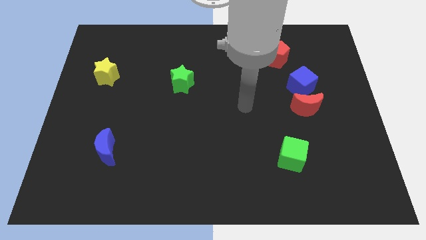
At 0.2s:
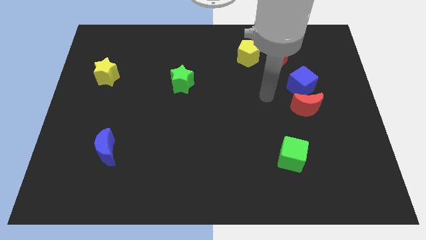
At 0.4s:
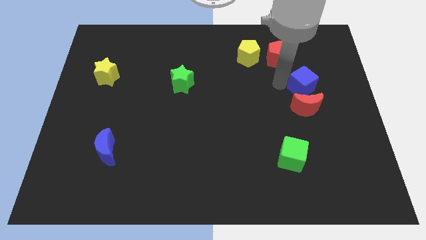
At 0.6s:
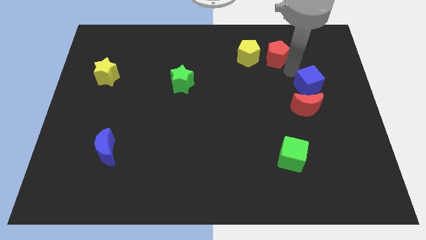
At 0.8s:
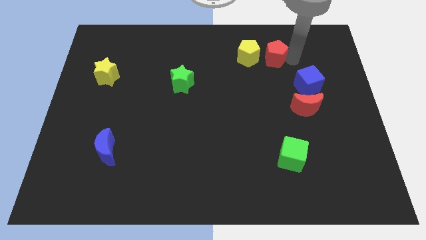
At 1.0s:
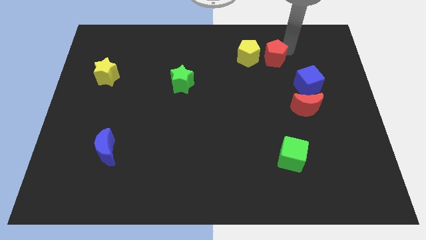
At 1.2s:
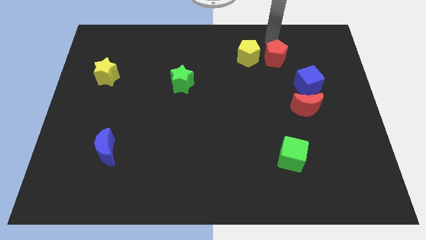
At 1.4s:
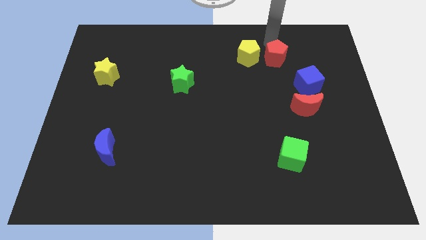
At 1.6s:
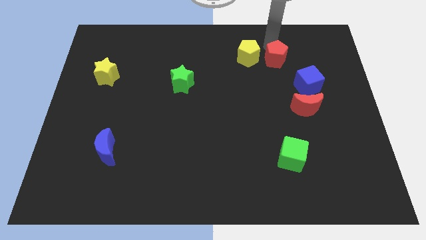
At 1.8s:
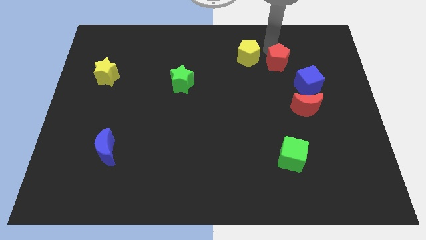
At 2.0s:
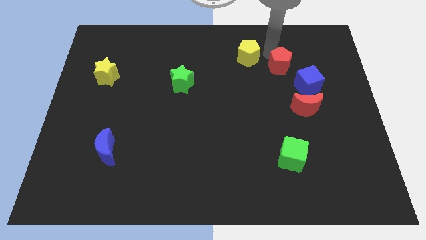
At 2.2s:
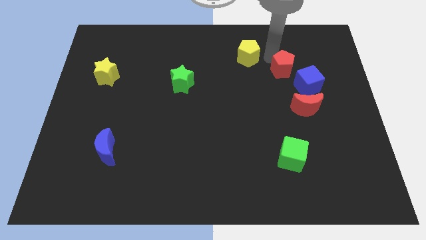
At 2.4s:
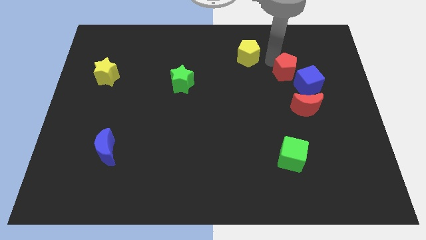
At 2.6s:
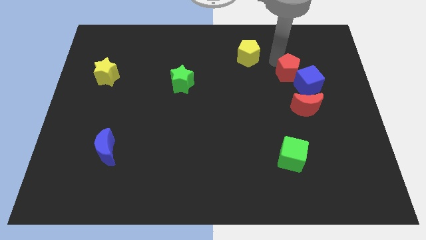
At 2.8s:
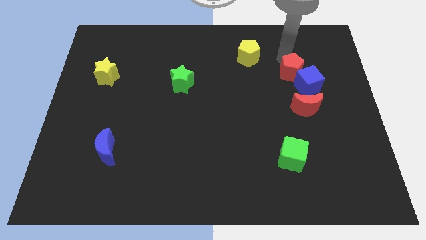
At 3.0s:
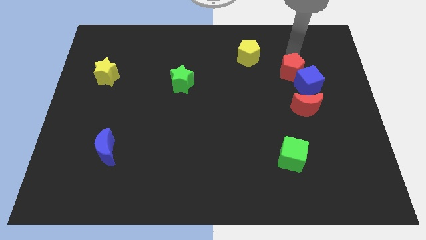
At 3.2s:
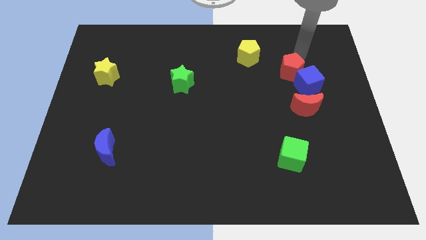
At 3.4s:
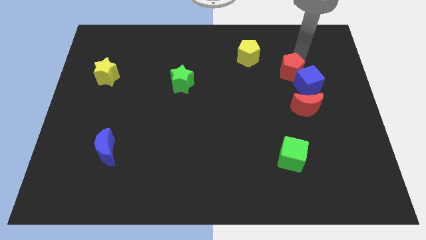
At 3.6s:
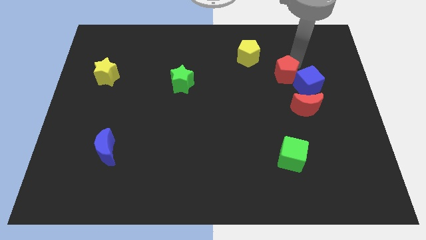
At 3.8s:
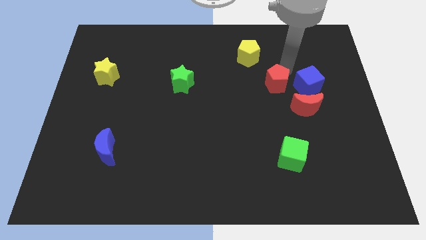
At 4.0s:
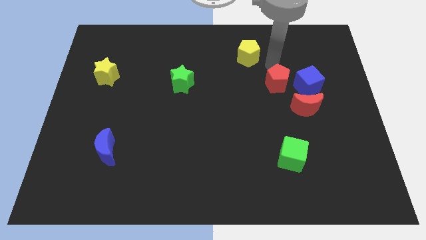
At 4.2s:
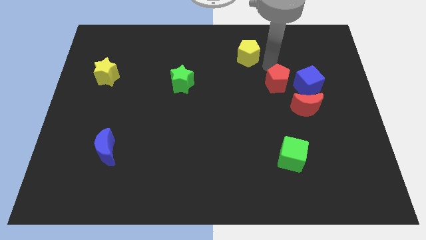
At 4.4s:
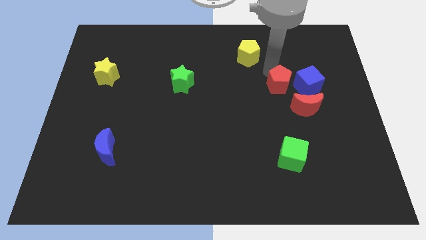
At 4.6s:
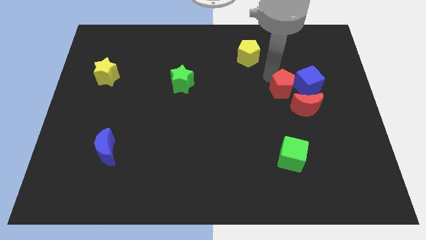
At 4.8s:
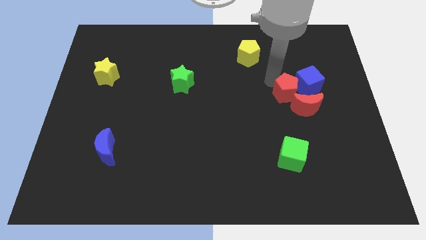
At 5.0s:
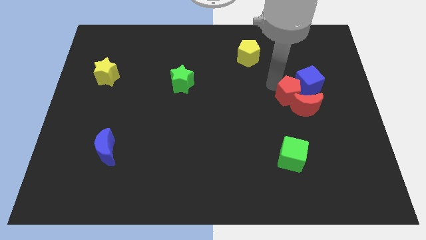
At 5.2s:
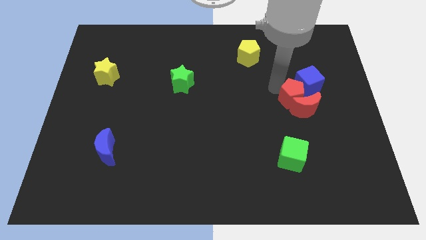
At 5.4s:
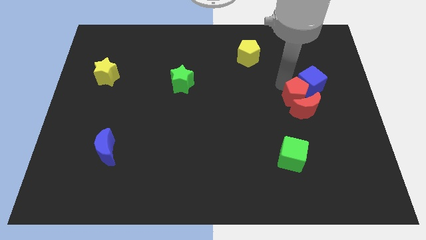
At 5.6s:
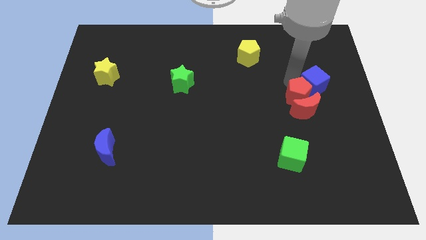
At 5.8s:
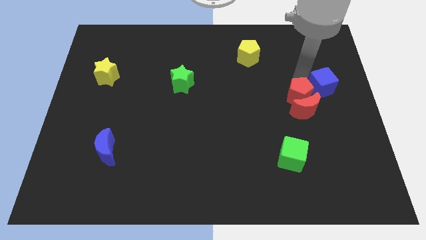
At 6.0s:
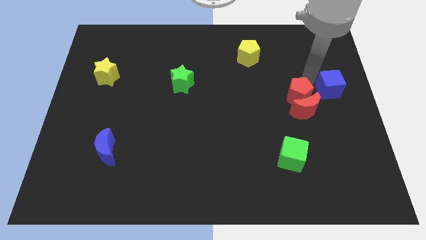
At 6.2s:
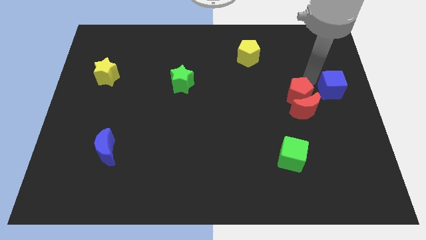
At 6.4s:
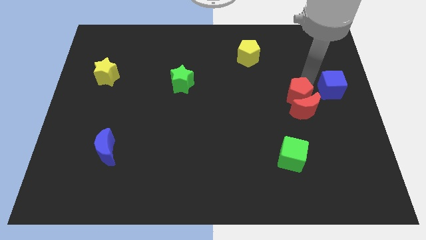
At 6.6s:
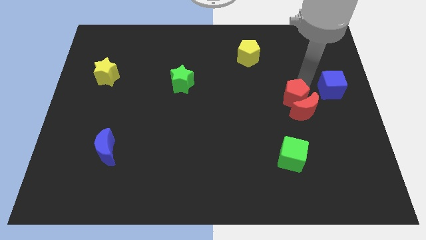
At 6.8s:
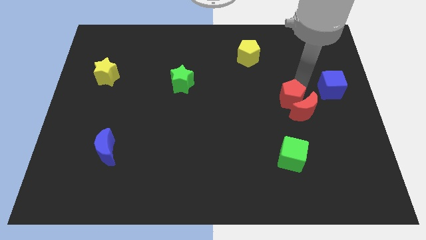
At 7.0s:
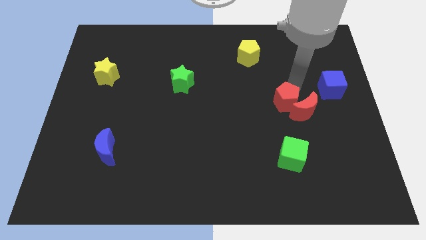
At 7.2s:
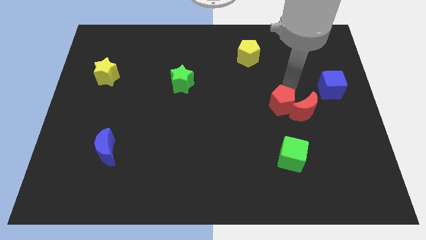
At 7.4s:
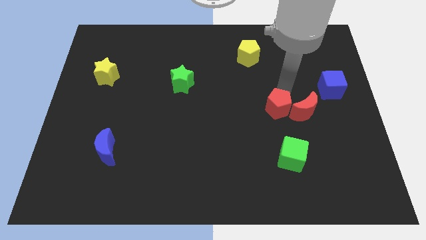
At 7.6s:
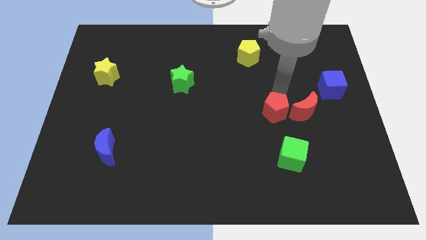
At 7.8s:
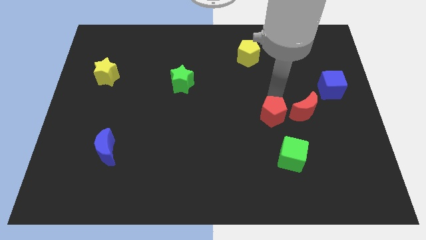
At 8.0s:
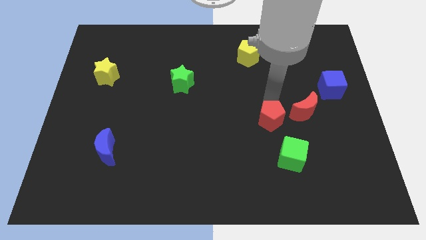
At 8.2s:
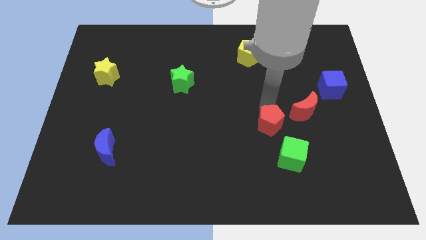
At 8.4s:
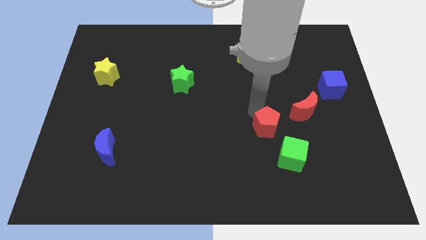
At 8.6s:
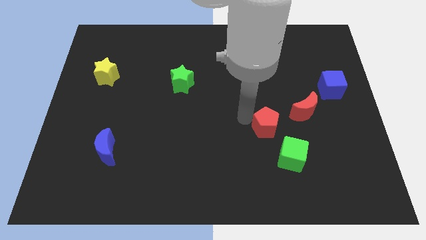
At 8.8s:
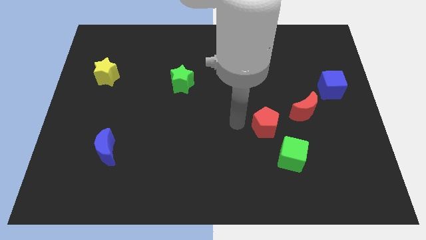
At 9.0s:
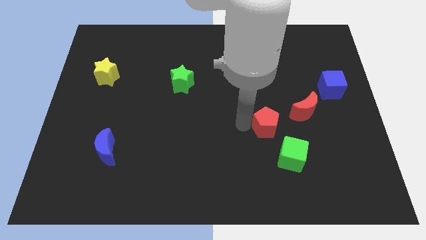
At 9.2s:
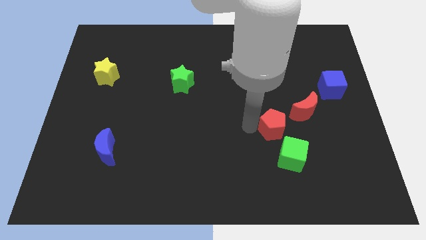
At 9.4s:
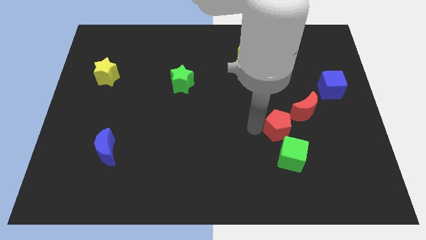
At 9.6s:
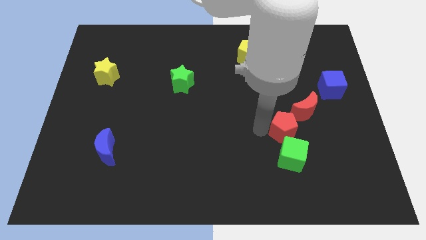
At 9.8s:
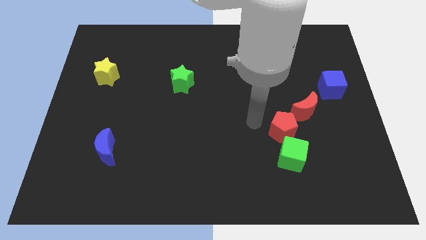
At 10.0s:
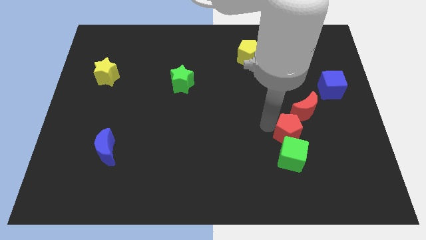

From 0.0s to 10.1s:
move the red pentagon to the top right side of the green cube

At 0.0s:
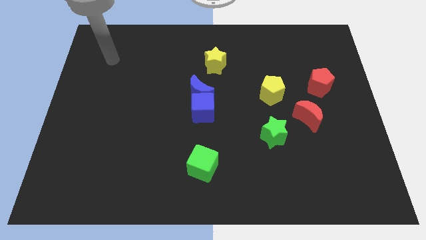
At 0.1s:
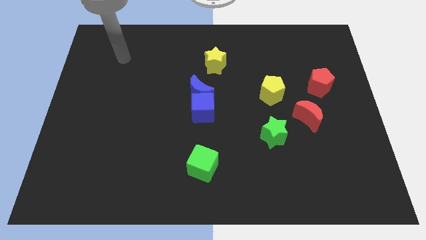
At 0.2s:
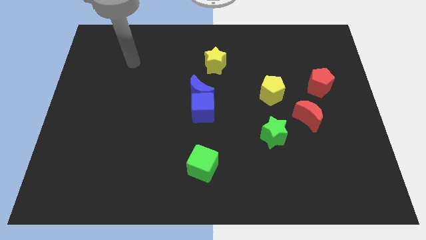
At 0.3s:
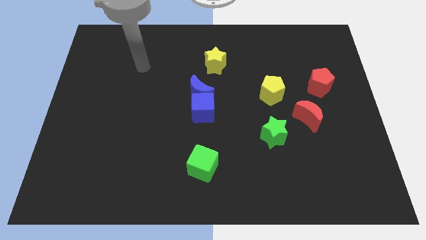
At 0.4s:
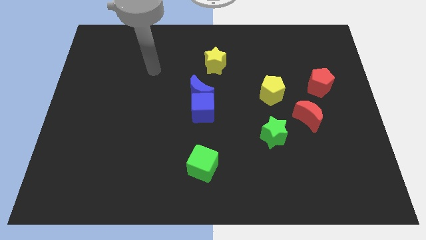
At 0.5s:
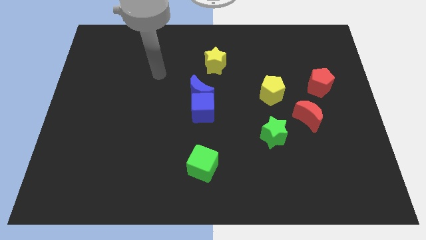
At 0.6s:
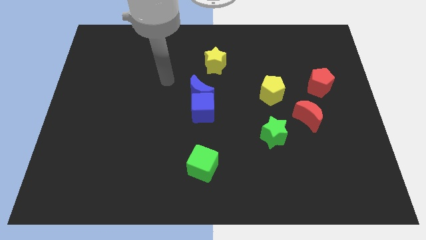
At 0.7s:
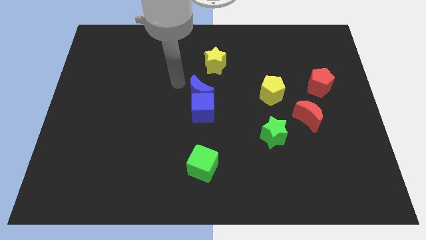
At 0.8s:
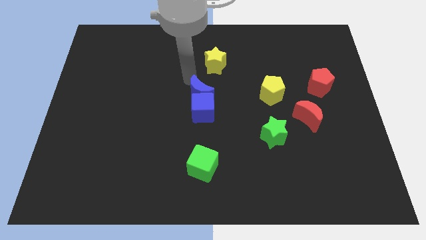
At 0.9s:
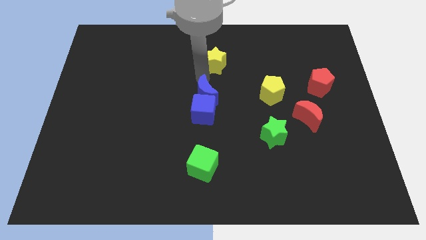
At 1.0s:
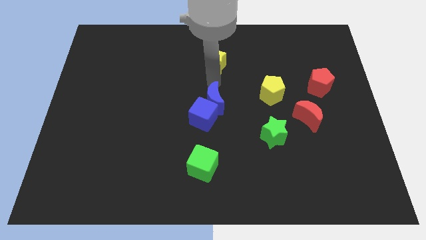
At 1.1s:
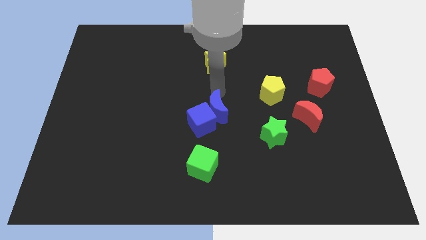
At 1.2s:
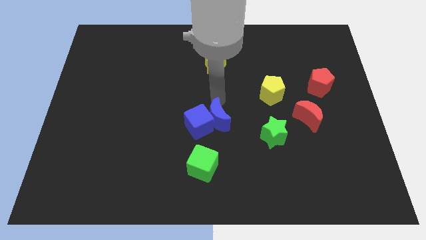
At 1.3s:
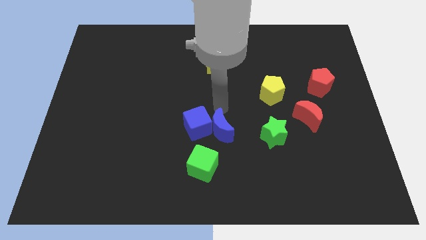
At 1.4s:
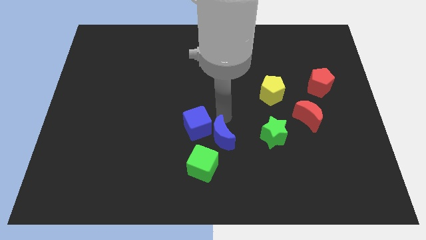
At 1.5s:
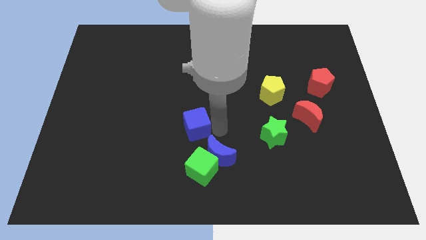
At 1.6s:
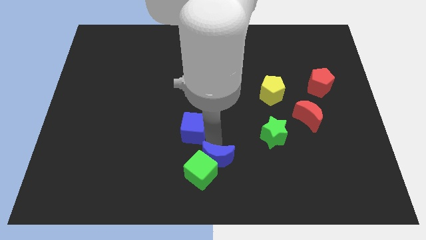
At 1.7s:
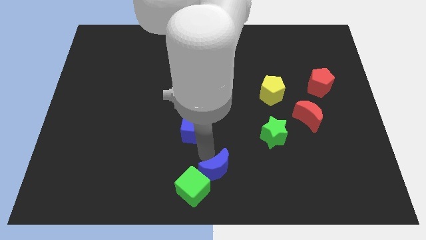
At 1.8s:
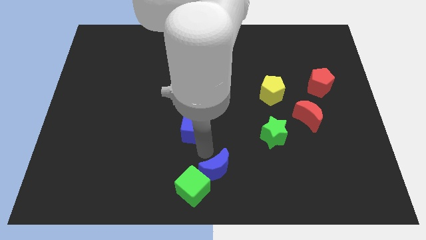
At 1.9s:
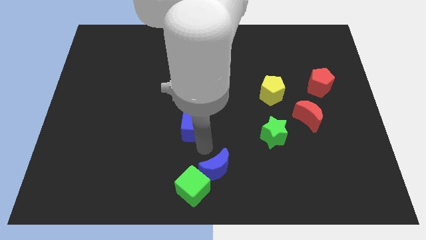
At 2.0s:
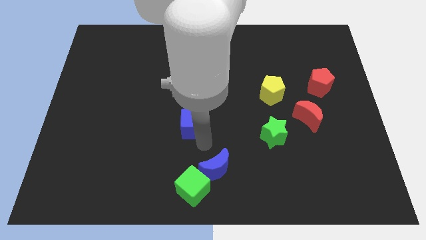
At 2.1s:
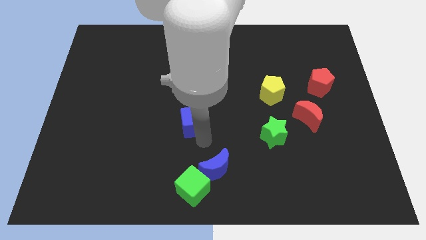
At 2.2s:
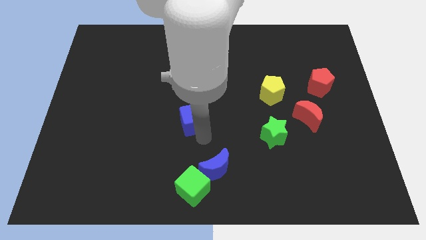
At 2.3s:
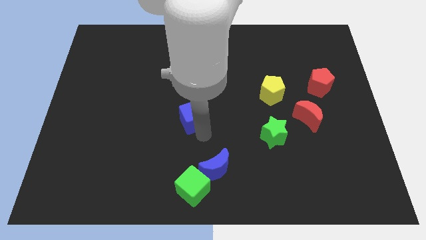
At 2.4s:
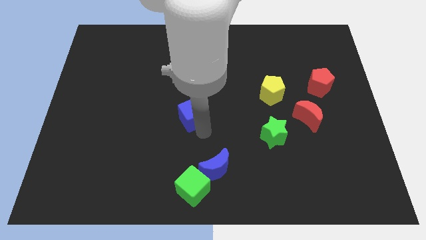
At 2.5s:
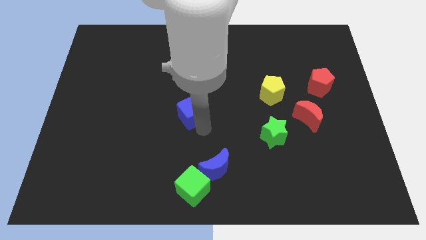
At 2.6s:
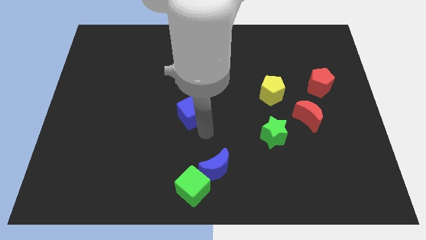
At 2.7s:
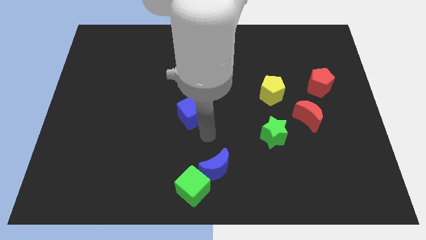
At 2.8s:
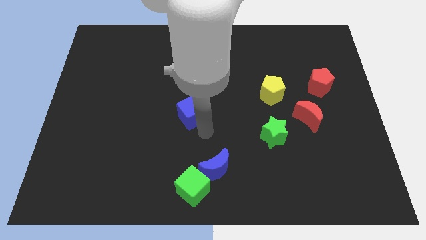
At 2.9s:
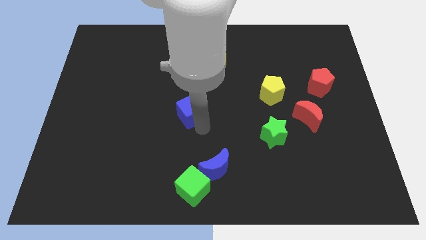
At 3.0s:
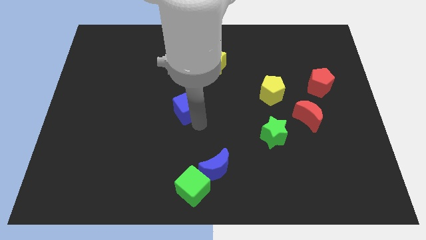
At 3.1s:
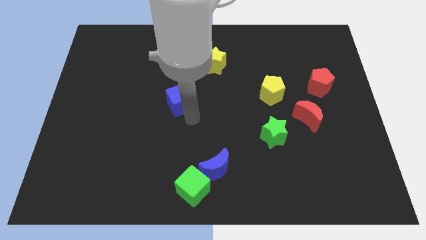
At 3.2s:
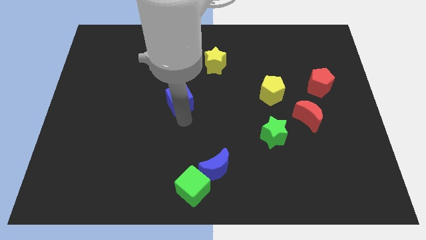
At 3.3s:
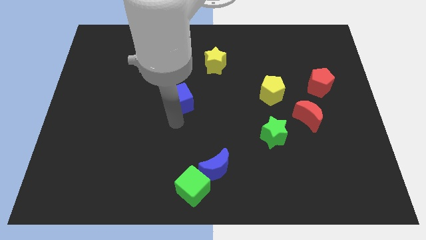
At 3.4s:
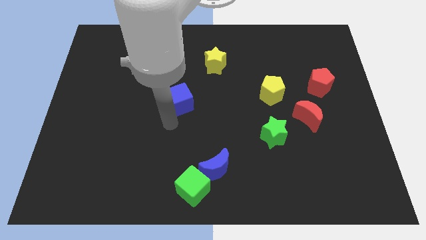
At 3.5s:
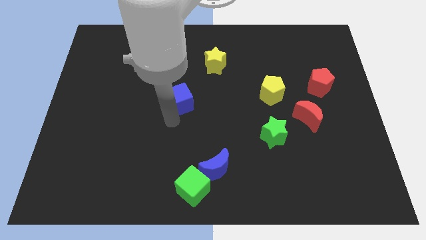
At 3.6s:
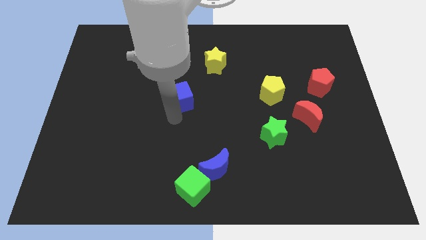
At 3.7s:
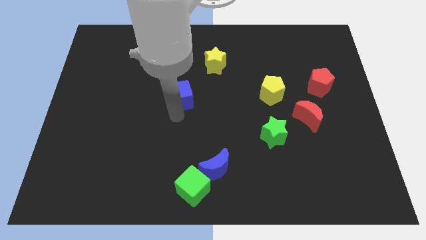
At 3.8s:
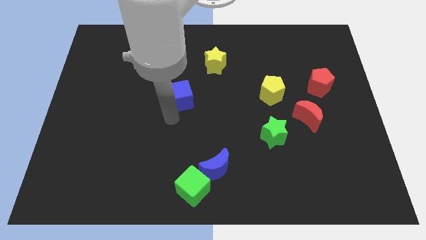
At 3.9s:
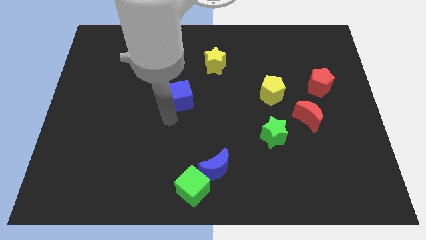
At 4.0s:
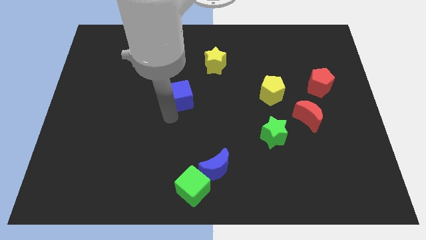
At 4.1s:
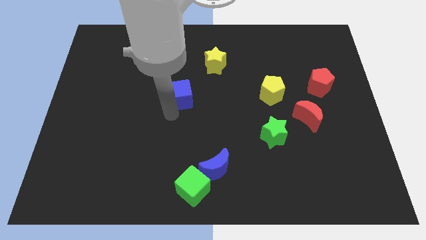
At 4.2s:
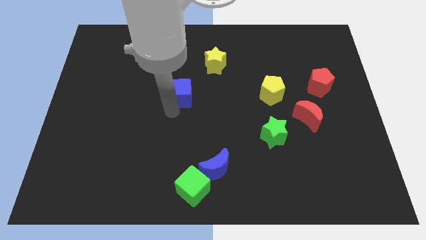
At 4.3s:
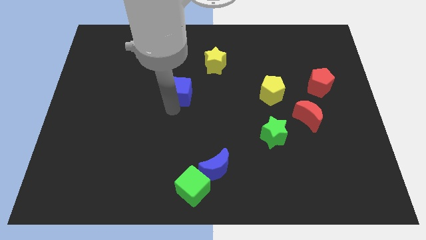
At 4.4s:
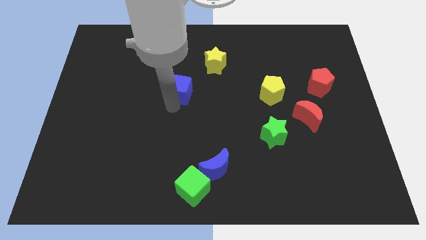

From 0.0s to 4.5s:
slide the blue cube to the bottom left side of the yellow star
